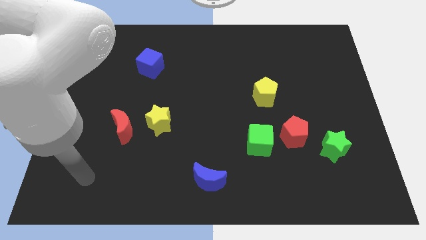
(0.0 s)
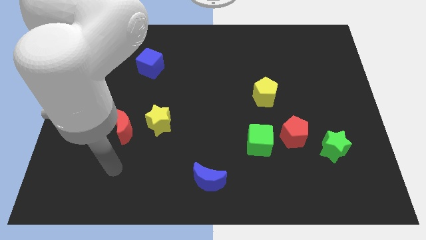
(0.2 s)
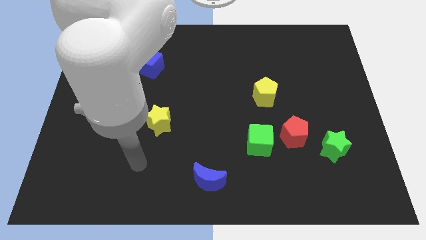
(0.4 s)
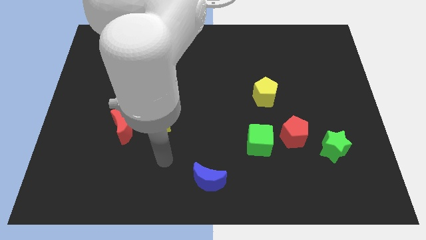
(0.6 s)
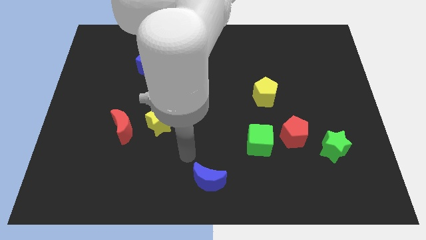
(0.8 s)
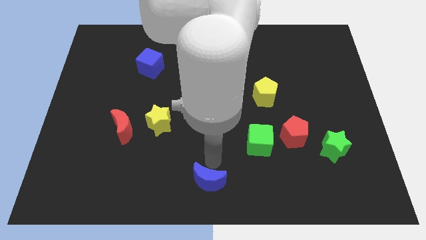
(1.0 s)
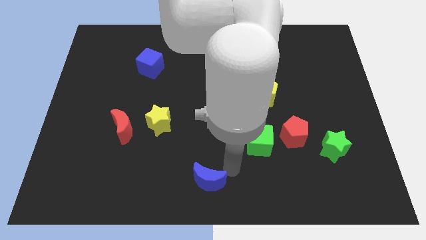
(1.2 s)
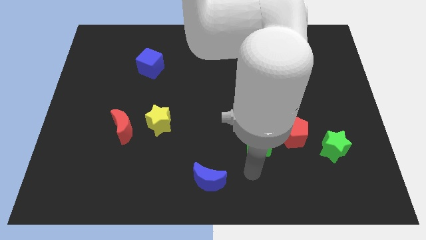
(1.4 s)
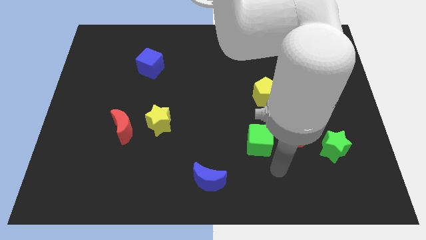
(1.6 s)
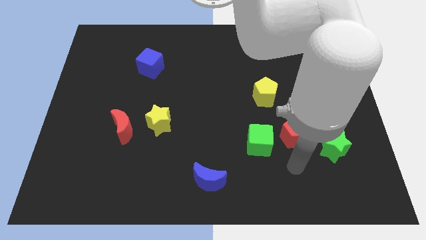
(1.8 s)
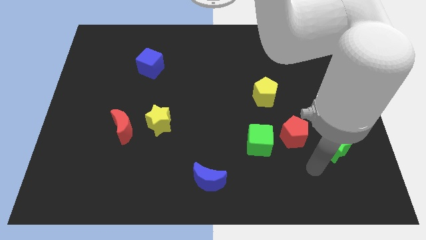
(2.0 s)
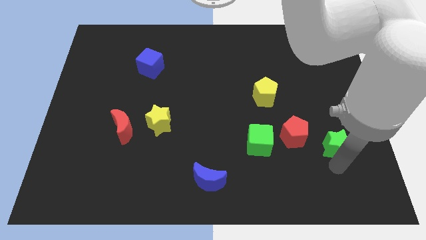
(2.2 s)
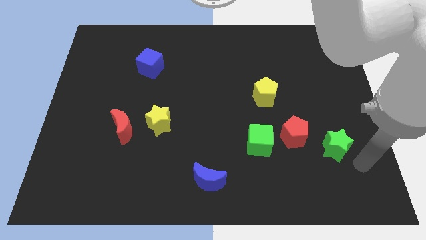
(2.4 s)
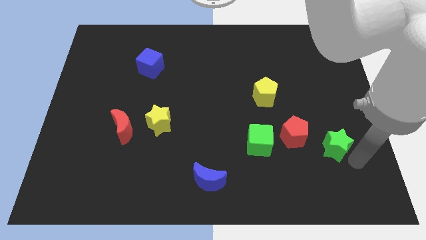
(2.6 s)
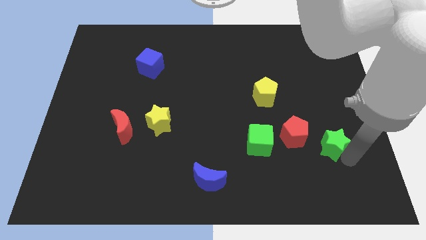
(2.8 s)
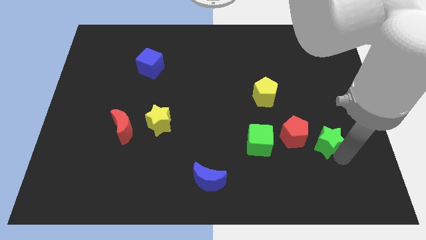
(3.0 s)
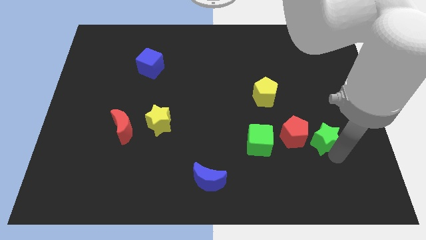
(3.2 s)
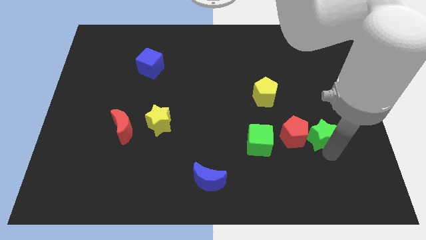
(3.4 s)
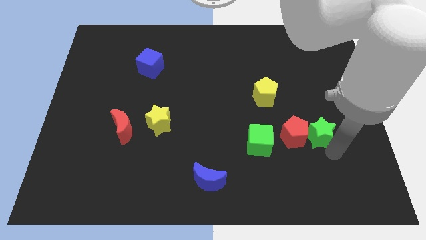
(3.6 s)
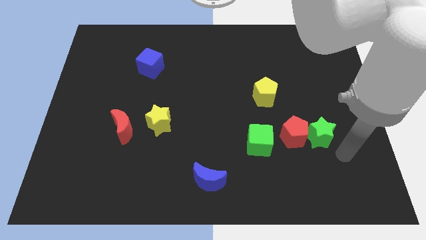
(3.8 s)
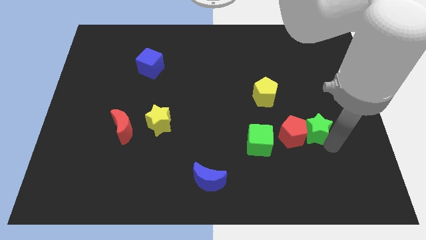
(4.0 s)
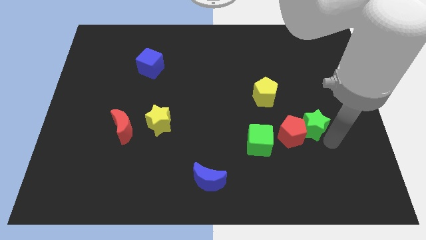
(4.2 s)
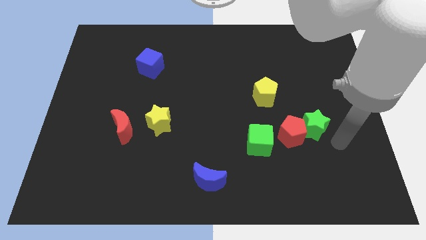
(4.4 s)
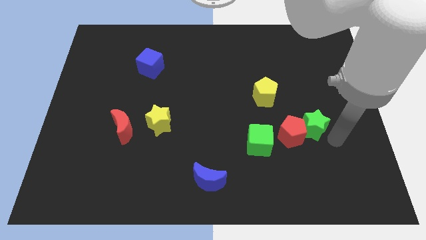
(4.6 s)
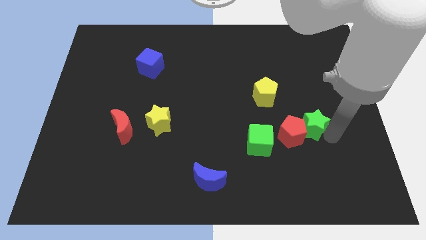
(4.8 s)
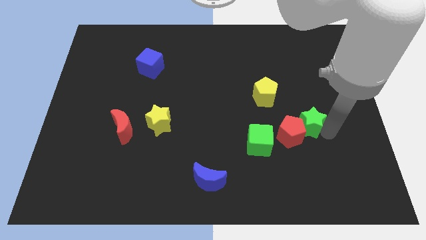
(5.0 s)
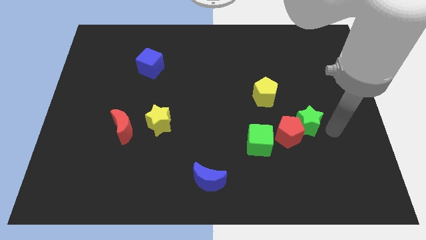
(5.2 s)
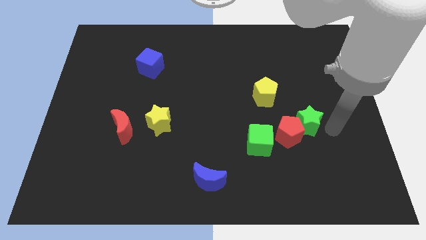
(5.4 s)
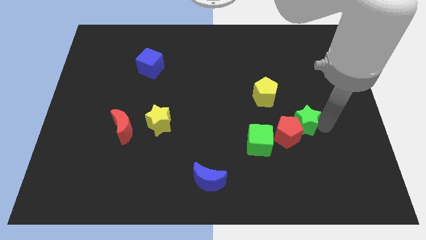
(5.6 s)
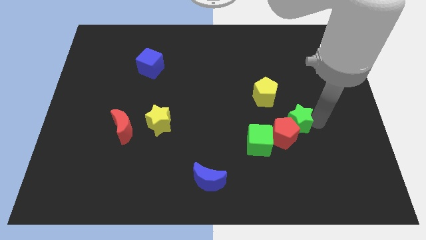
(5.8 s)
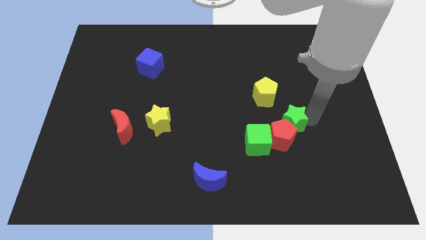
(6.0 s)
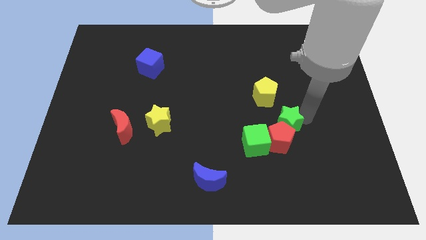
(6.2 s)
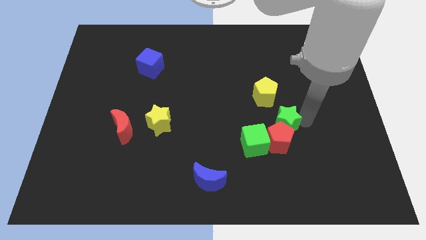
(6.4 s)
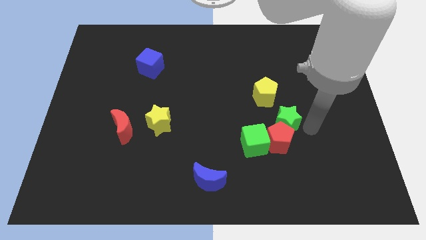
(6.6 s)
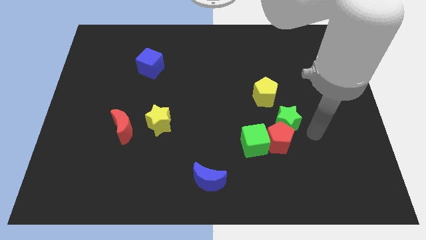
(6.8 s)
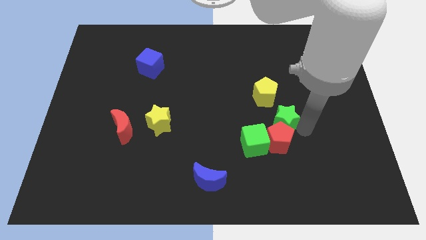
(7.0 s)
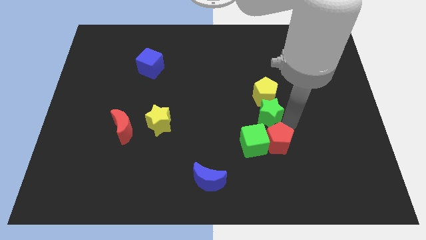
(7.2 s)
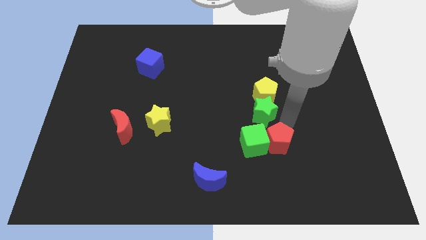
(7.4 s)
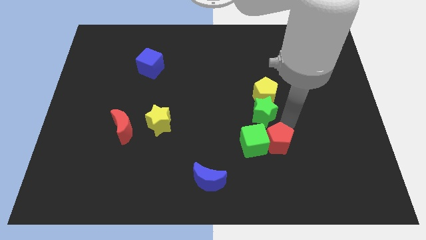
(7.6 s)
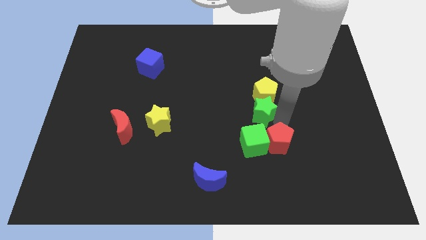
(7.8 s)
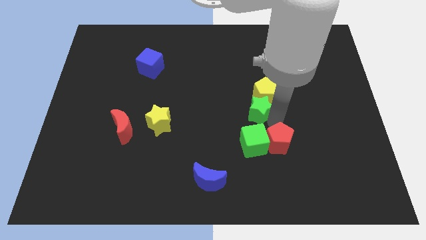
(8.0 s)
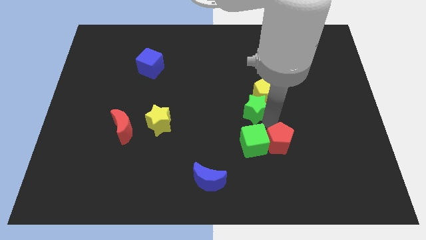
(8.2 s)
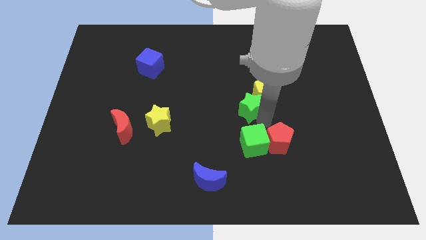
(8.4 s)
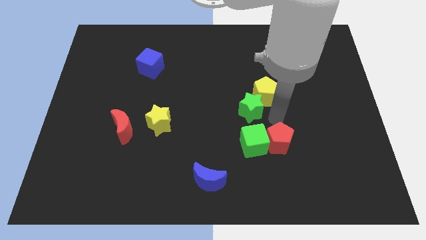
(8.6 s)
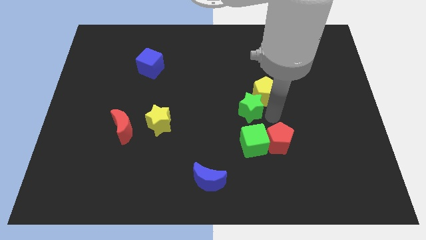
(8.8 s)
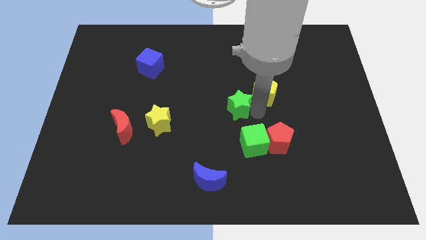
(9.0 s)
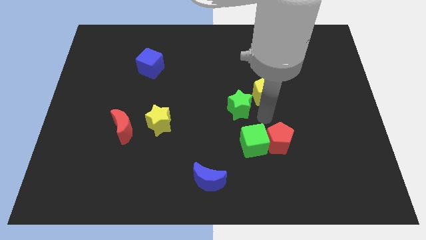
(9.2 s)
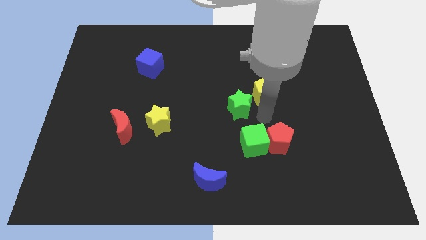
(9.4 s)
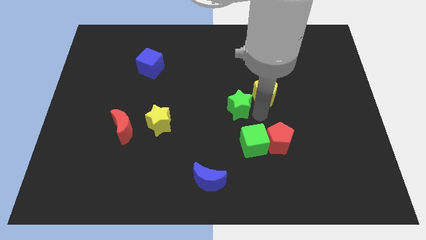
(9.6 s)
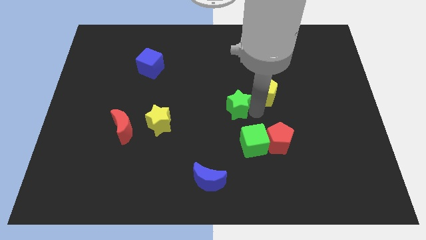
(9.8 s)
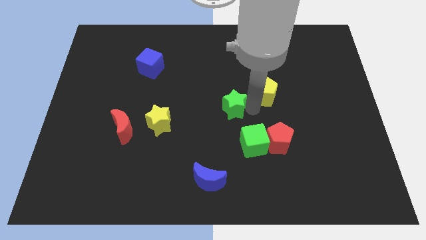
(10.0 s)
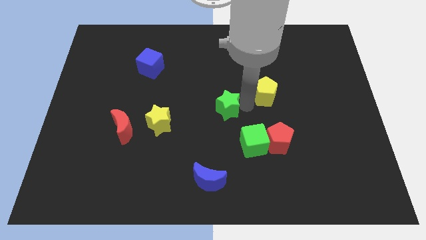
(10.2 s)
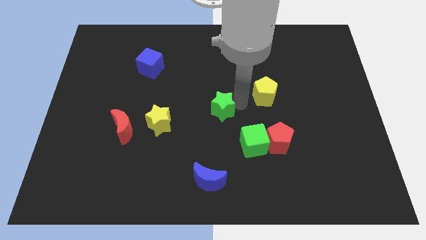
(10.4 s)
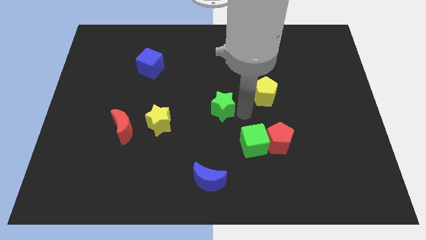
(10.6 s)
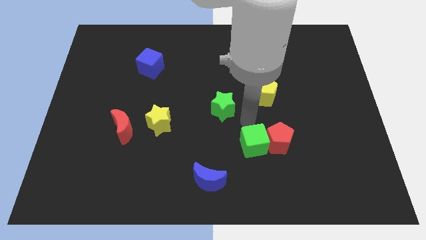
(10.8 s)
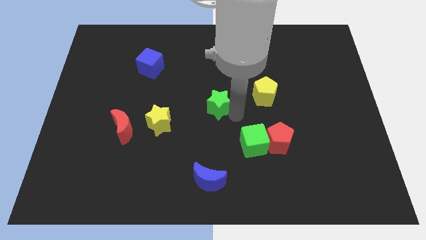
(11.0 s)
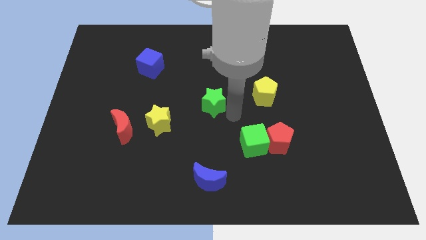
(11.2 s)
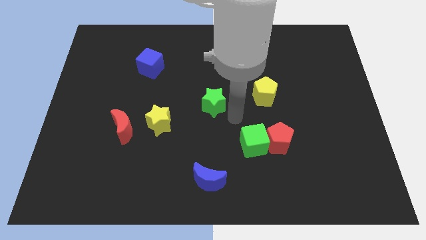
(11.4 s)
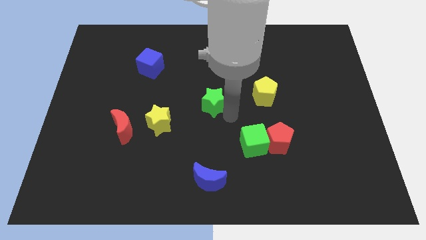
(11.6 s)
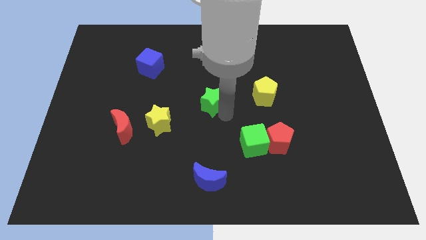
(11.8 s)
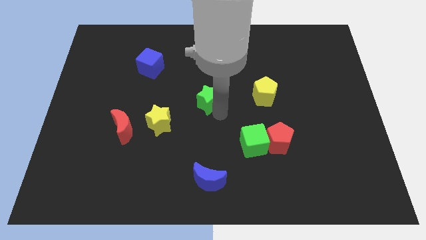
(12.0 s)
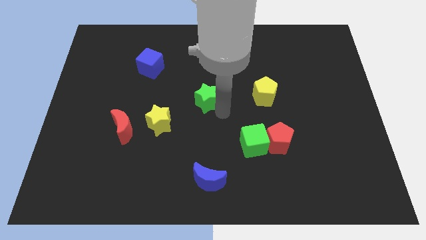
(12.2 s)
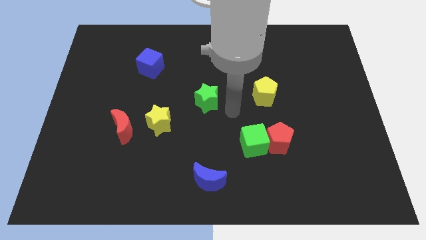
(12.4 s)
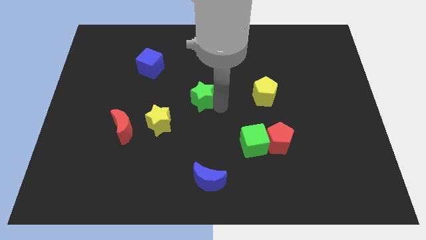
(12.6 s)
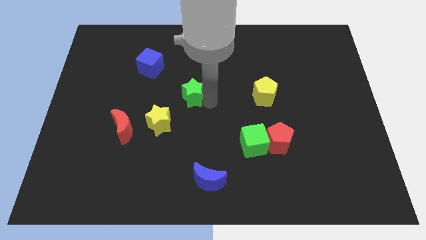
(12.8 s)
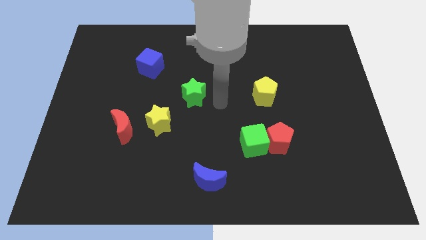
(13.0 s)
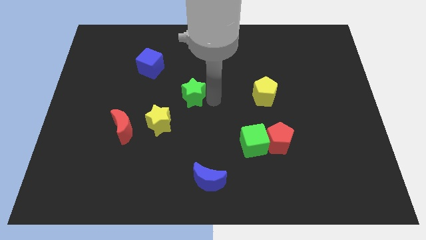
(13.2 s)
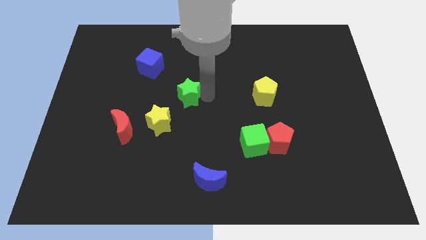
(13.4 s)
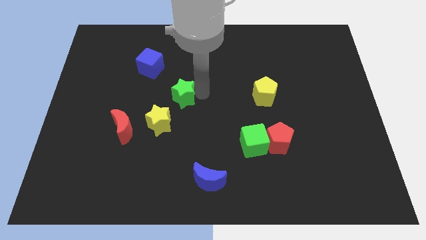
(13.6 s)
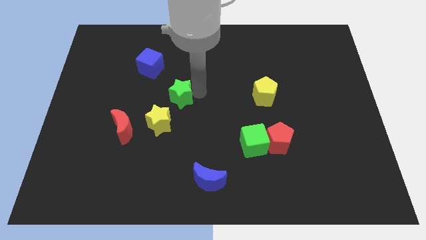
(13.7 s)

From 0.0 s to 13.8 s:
slide the green star to the top of the yellow star

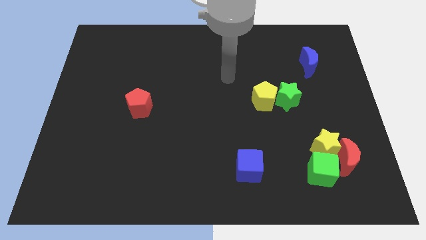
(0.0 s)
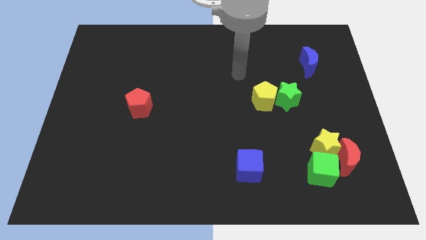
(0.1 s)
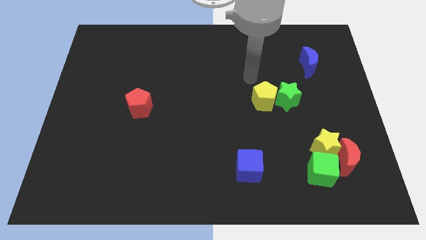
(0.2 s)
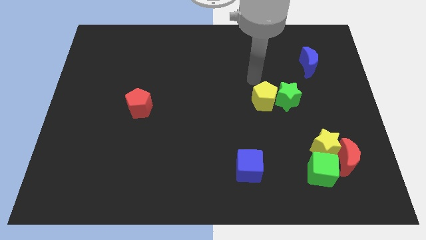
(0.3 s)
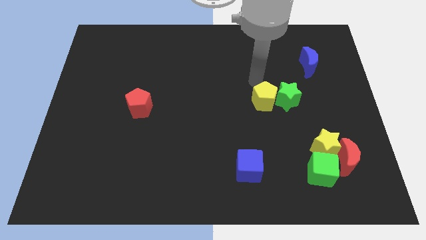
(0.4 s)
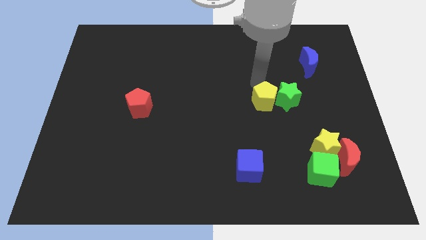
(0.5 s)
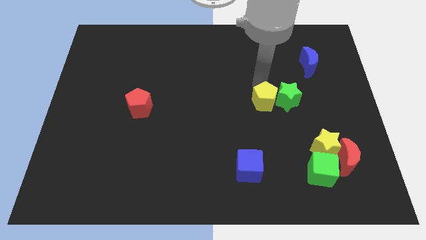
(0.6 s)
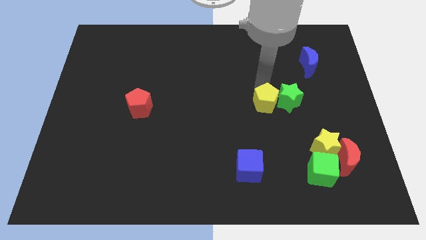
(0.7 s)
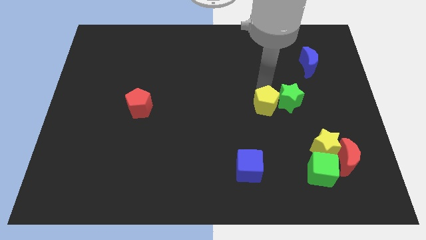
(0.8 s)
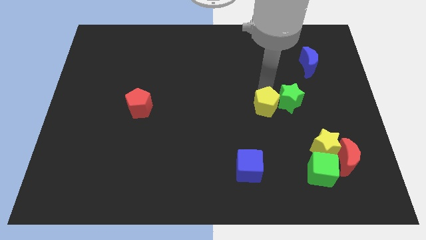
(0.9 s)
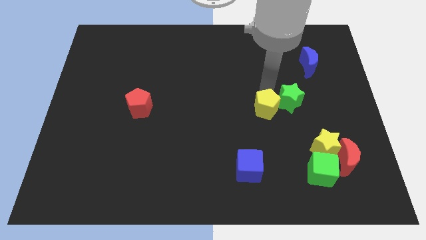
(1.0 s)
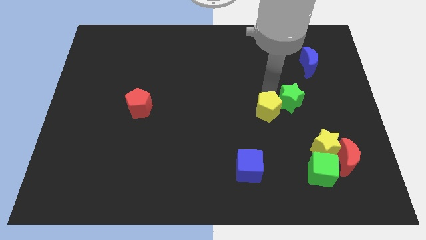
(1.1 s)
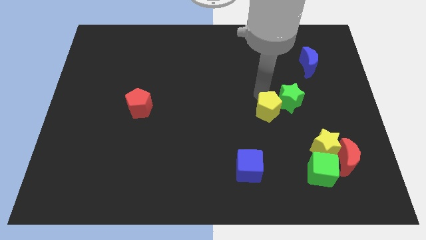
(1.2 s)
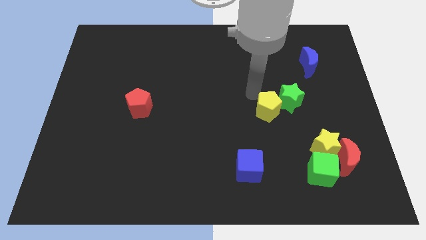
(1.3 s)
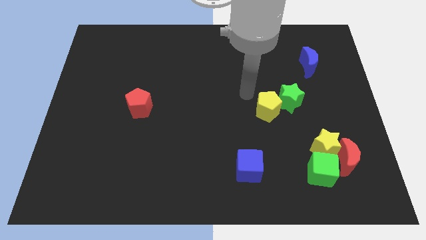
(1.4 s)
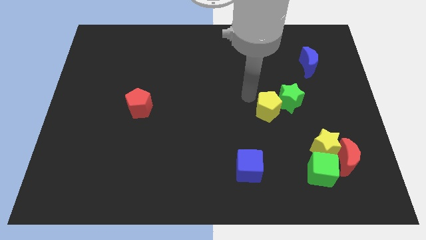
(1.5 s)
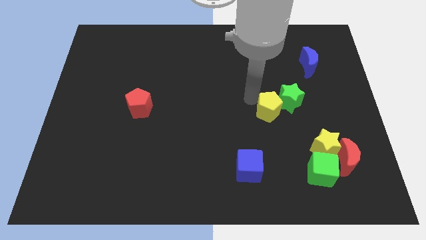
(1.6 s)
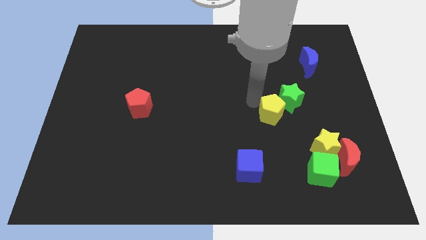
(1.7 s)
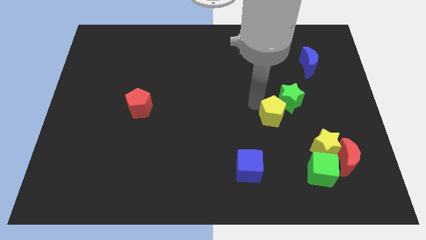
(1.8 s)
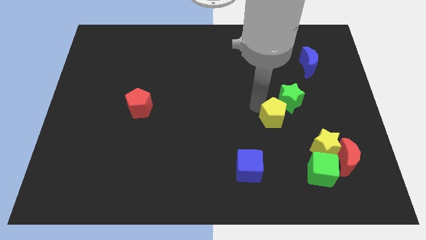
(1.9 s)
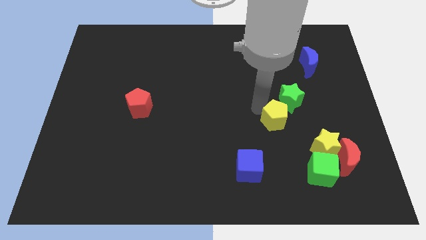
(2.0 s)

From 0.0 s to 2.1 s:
slide the yellow pentagon to the top left side of the yellow star
